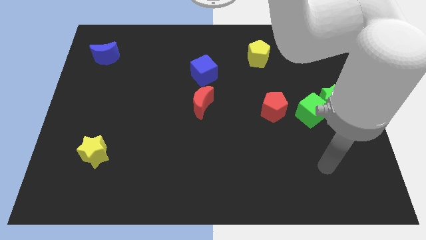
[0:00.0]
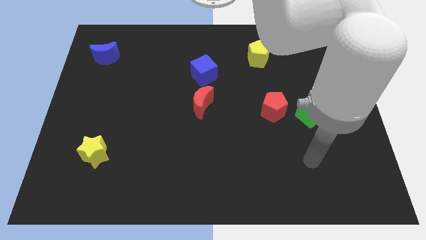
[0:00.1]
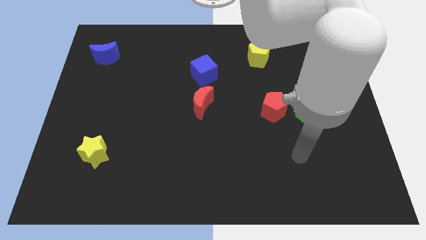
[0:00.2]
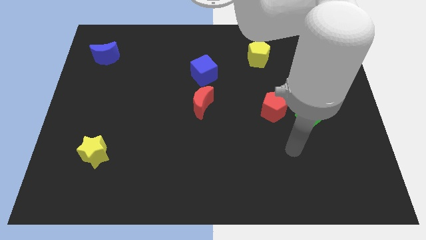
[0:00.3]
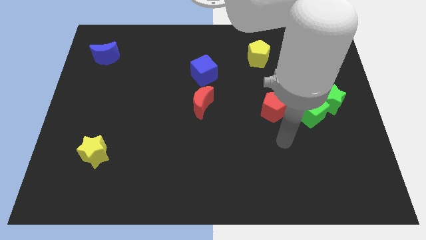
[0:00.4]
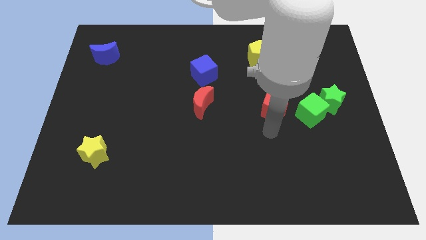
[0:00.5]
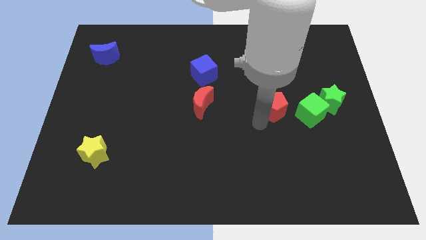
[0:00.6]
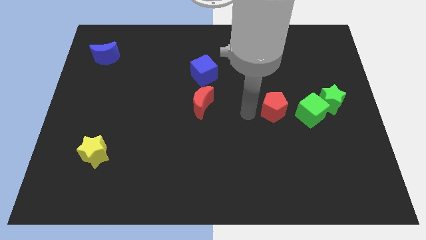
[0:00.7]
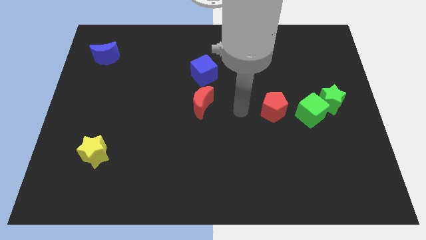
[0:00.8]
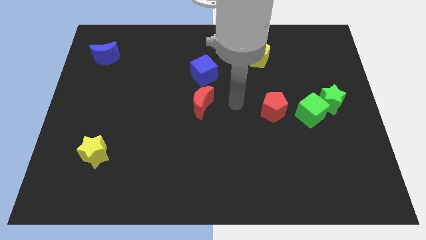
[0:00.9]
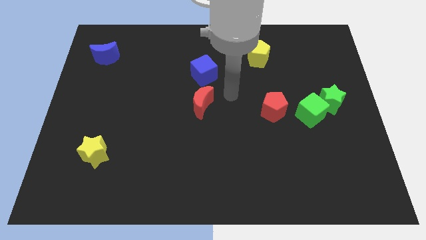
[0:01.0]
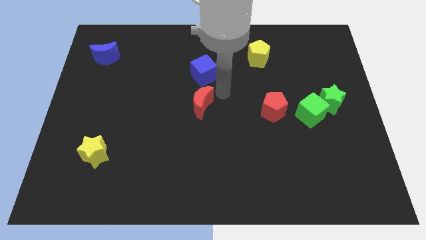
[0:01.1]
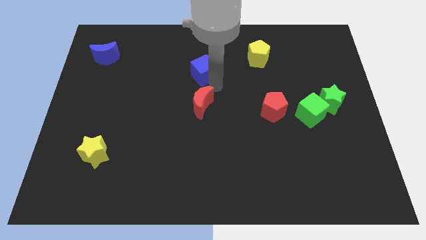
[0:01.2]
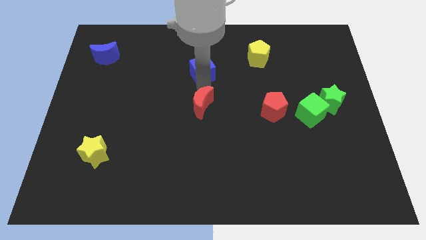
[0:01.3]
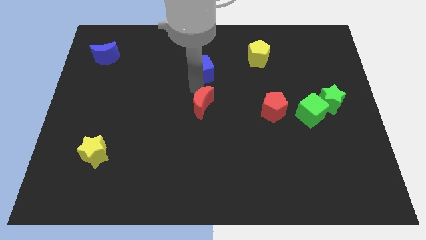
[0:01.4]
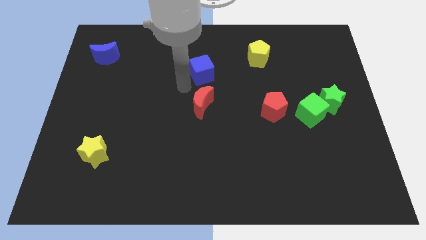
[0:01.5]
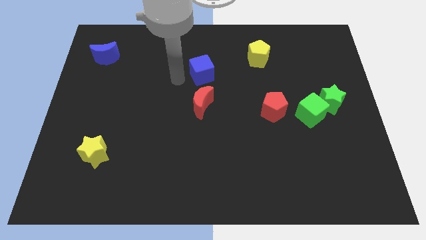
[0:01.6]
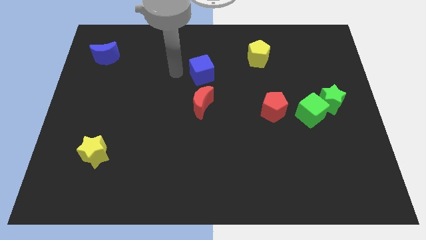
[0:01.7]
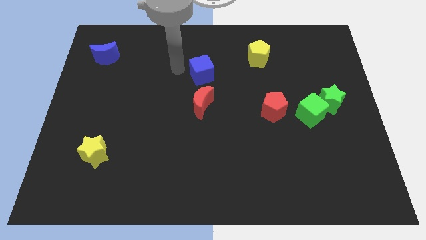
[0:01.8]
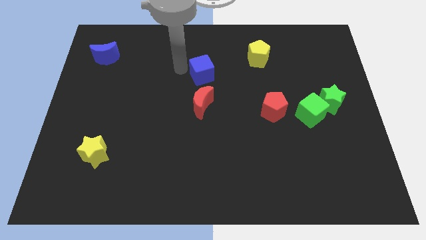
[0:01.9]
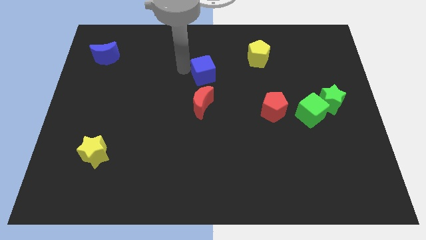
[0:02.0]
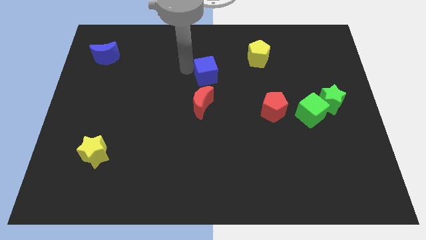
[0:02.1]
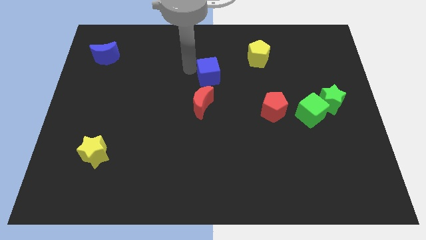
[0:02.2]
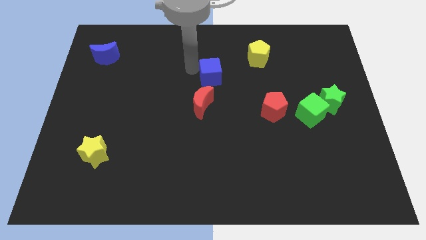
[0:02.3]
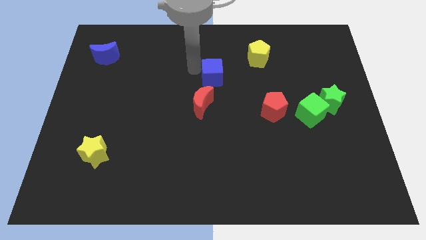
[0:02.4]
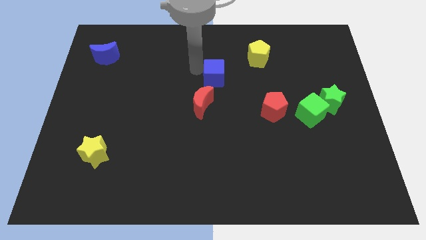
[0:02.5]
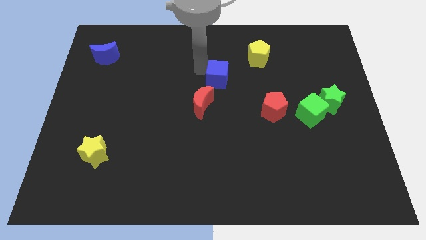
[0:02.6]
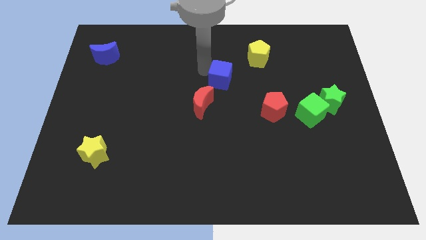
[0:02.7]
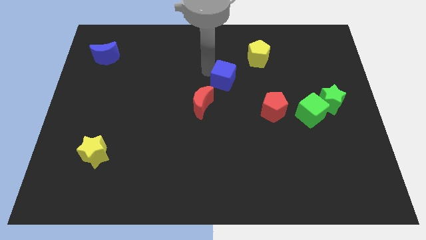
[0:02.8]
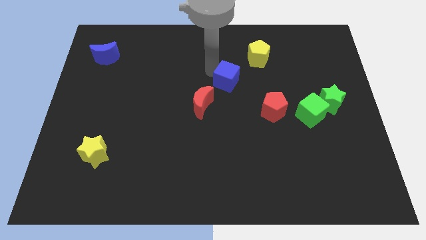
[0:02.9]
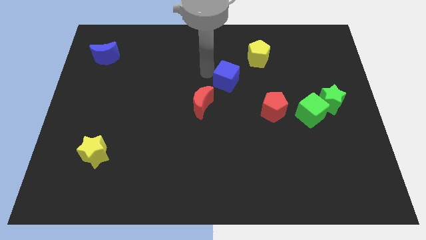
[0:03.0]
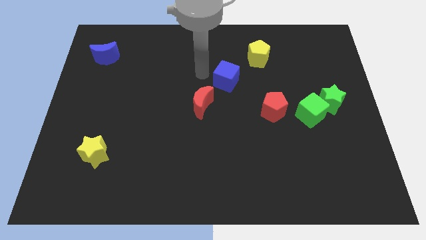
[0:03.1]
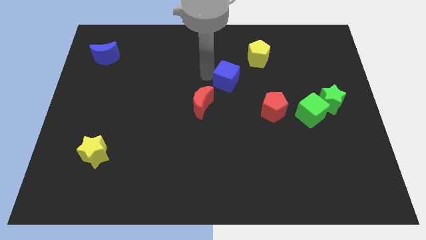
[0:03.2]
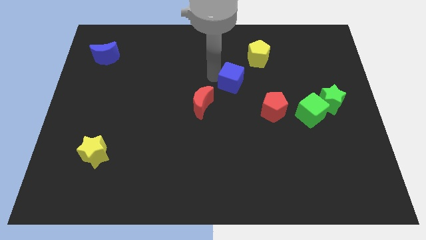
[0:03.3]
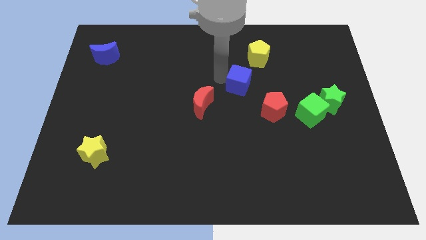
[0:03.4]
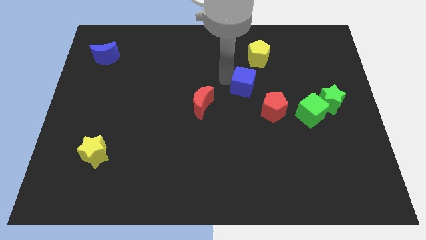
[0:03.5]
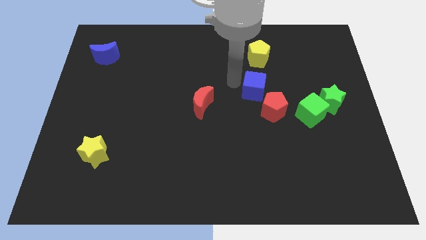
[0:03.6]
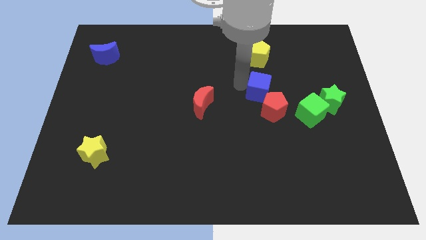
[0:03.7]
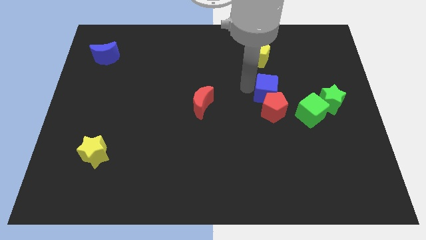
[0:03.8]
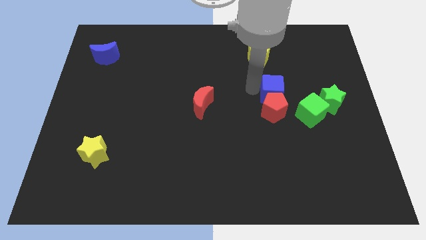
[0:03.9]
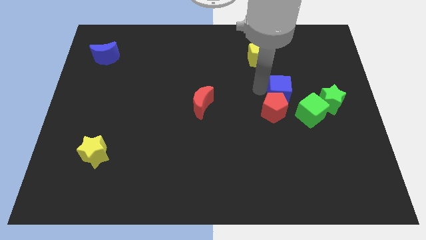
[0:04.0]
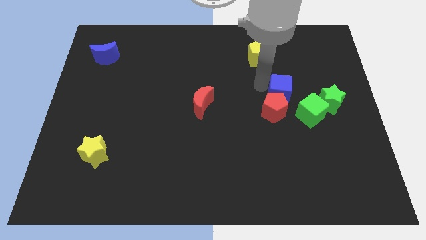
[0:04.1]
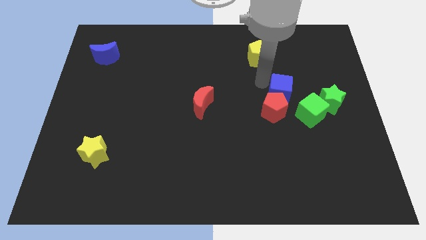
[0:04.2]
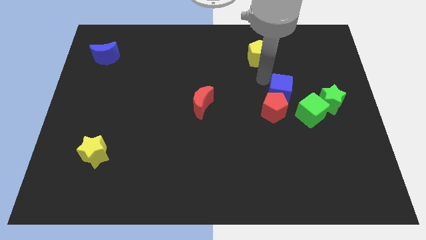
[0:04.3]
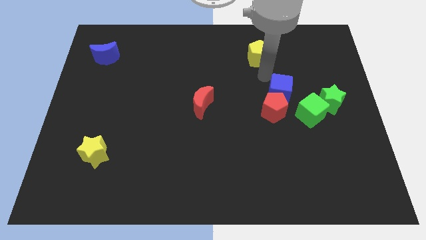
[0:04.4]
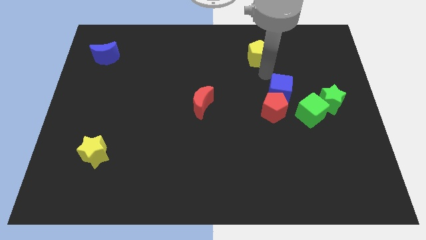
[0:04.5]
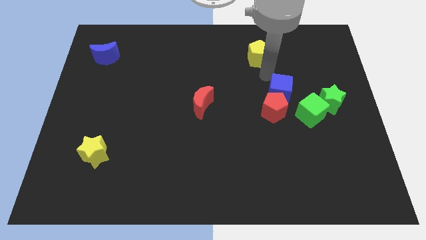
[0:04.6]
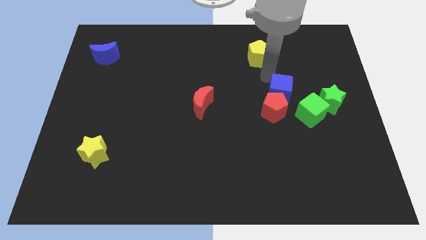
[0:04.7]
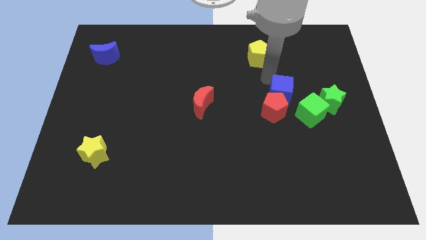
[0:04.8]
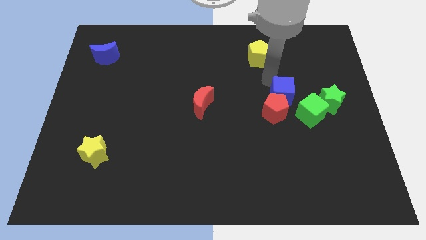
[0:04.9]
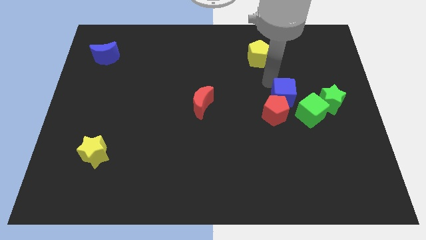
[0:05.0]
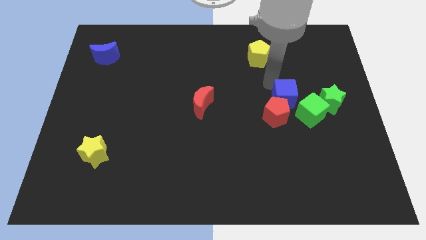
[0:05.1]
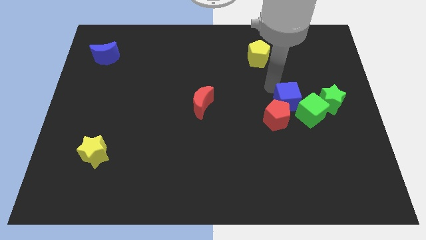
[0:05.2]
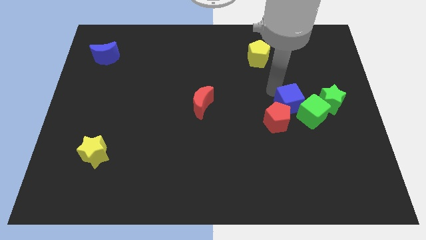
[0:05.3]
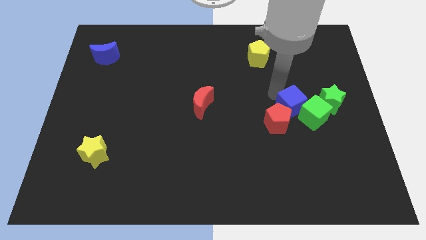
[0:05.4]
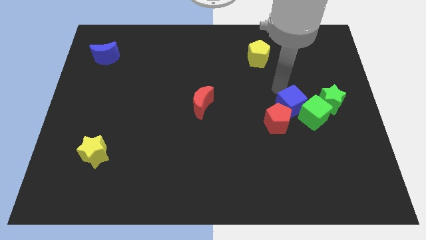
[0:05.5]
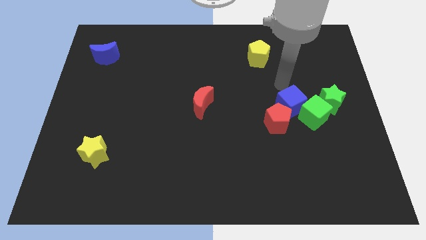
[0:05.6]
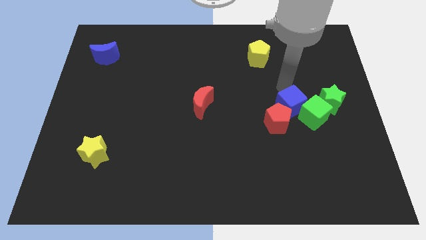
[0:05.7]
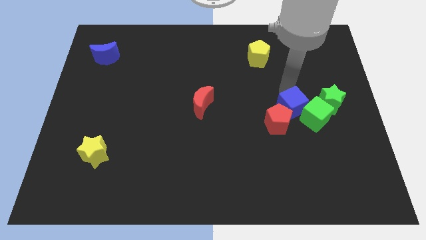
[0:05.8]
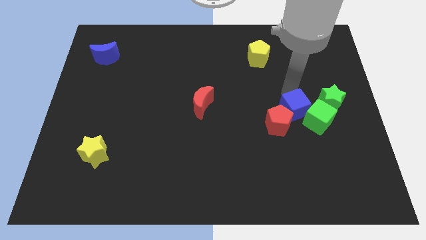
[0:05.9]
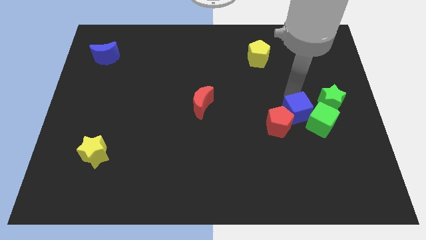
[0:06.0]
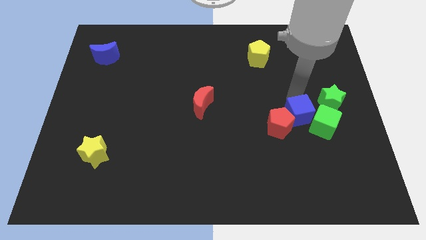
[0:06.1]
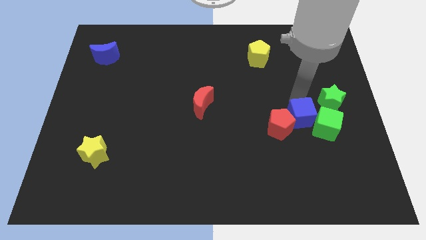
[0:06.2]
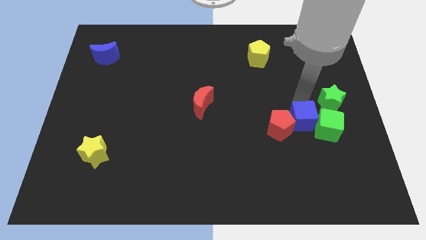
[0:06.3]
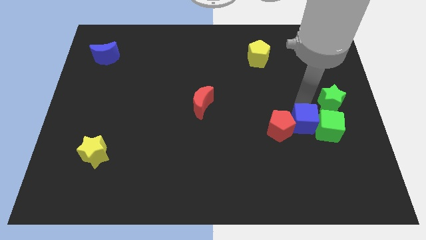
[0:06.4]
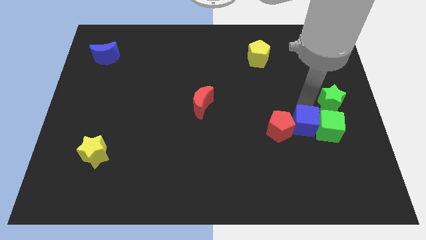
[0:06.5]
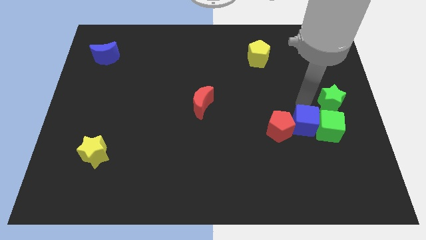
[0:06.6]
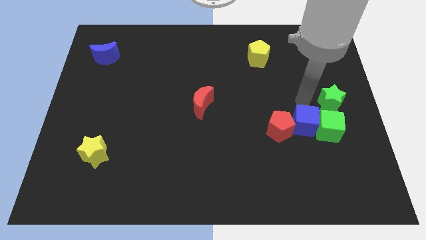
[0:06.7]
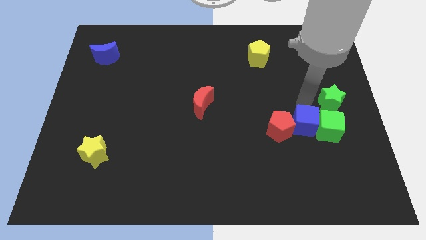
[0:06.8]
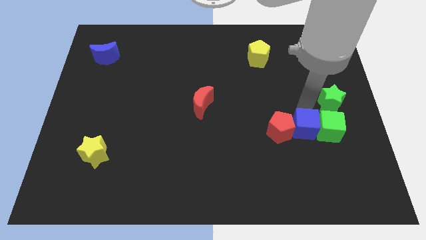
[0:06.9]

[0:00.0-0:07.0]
move the blue cube to the bottom right side of the red pentagon

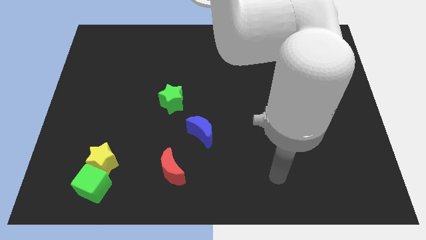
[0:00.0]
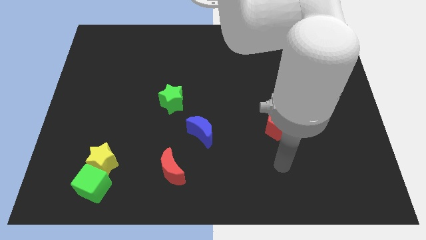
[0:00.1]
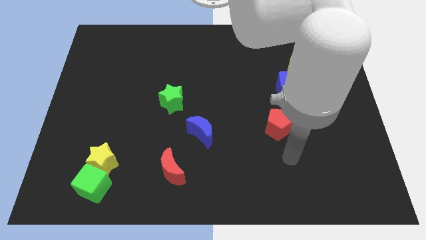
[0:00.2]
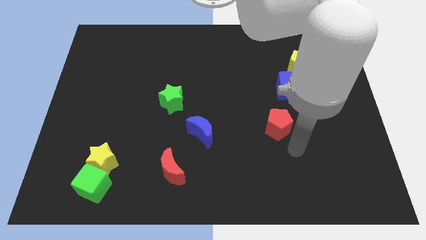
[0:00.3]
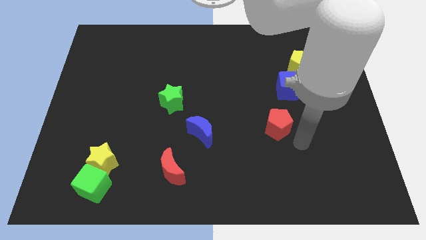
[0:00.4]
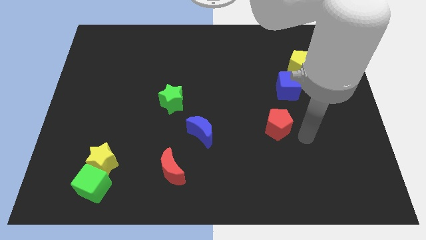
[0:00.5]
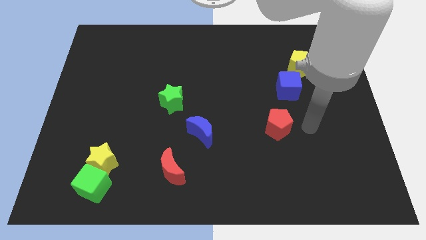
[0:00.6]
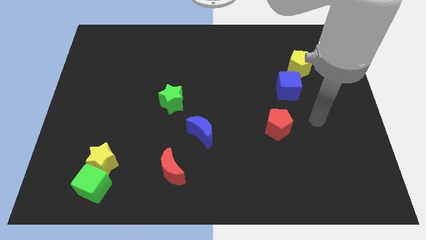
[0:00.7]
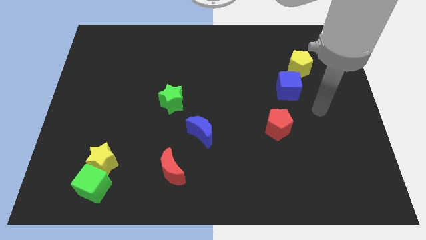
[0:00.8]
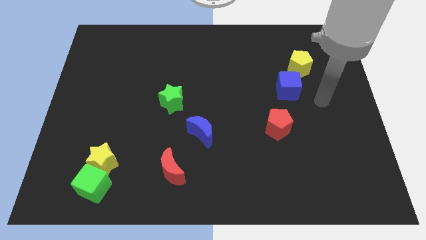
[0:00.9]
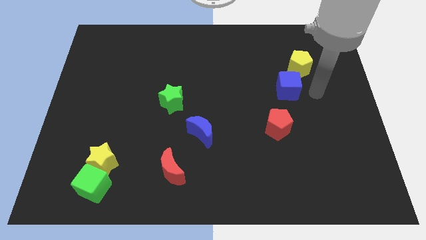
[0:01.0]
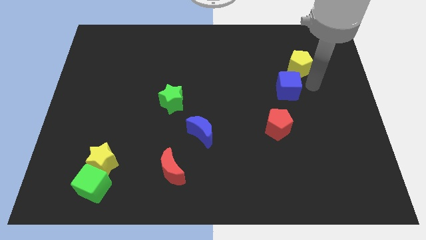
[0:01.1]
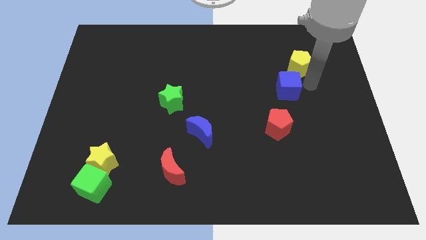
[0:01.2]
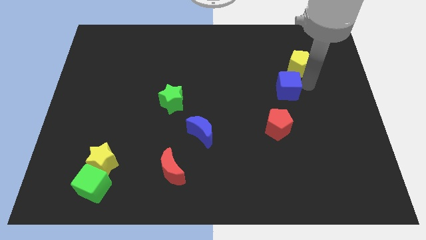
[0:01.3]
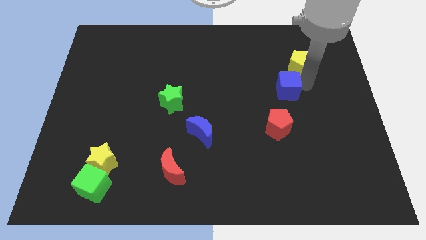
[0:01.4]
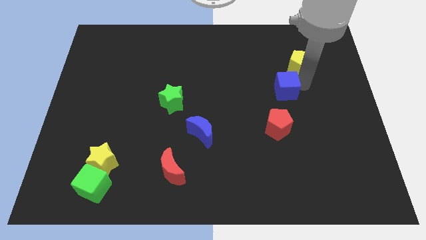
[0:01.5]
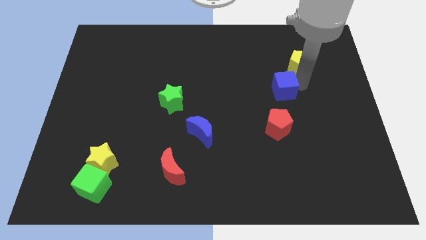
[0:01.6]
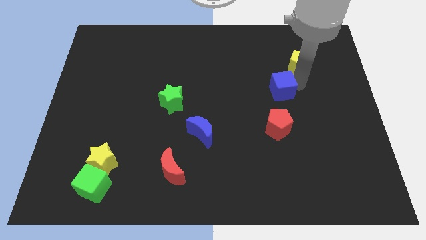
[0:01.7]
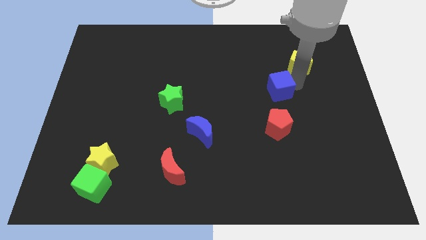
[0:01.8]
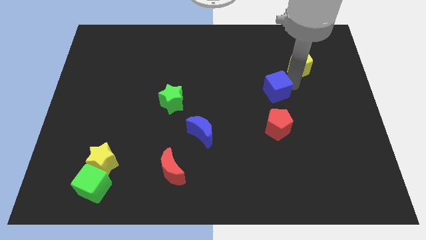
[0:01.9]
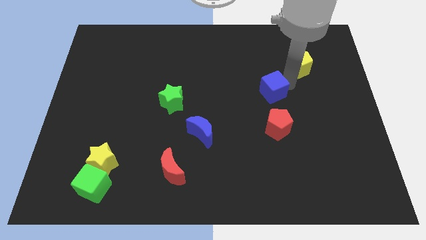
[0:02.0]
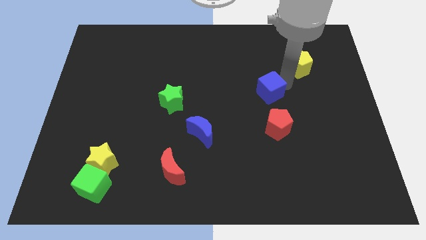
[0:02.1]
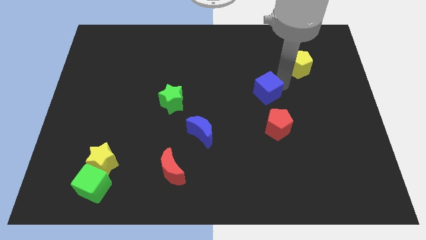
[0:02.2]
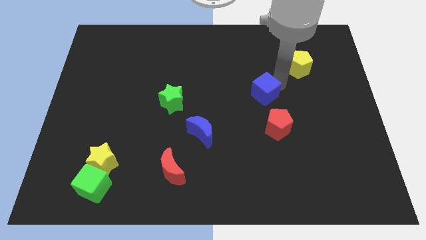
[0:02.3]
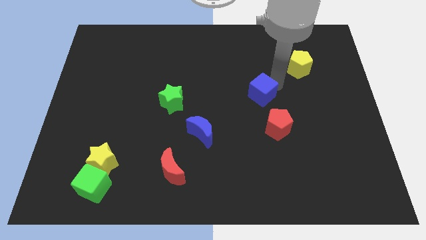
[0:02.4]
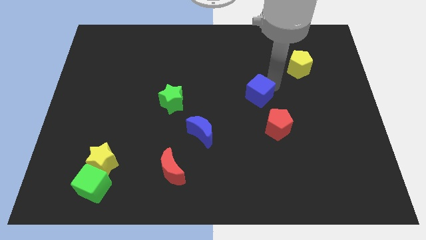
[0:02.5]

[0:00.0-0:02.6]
move the blue cube diagonally up and to the left of the red pentagon
